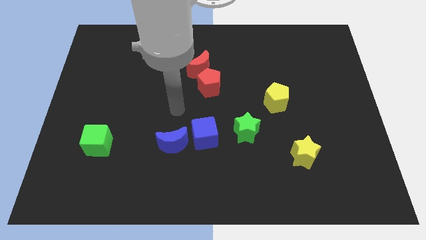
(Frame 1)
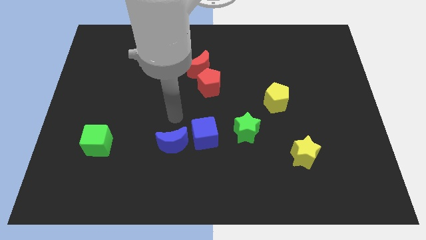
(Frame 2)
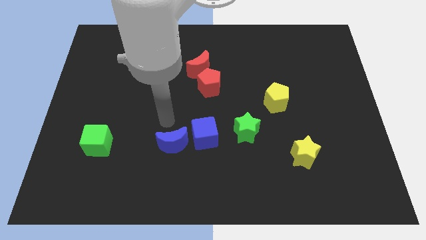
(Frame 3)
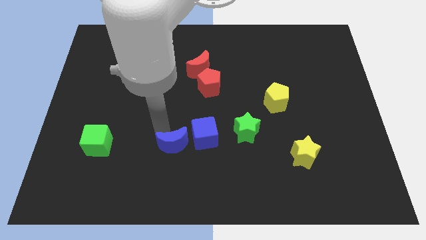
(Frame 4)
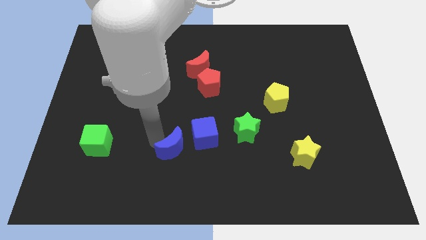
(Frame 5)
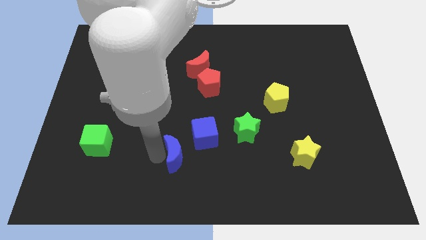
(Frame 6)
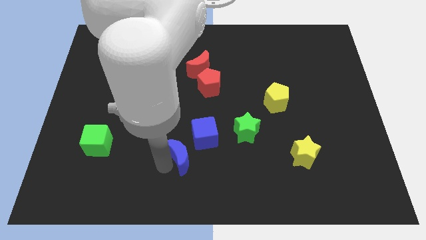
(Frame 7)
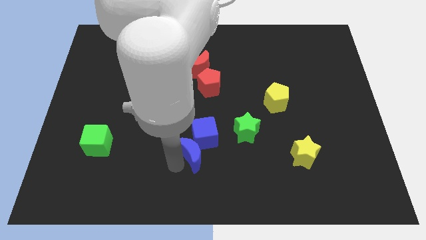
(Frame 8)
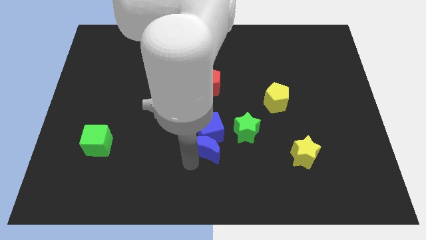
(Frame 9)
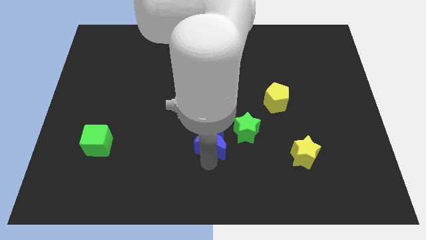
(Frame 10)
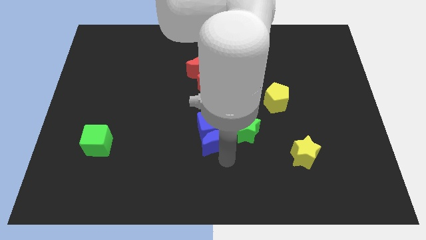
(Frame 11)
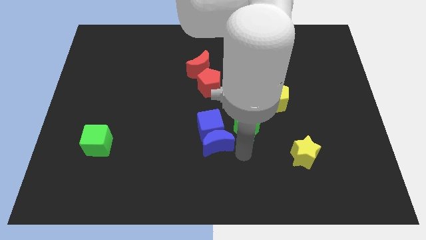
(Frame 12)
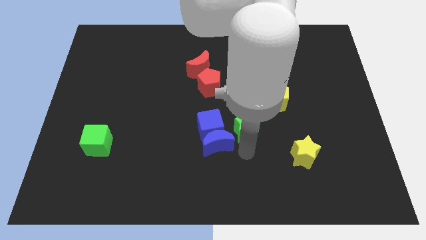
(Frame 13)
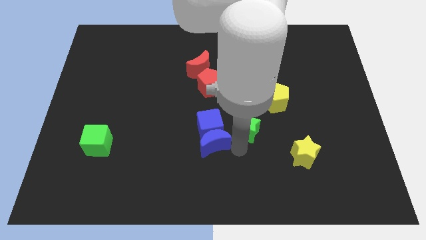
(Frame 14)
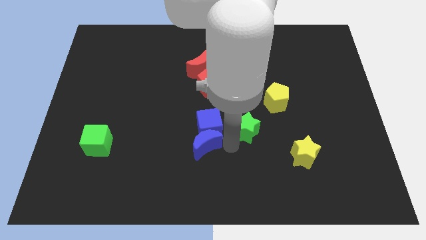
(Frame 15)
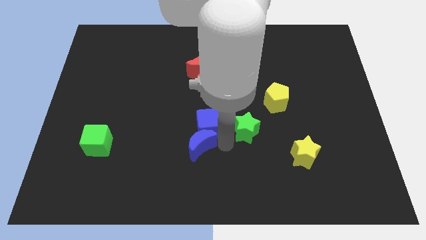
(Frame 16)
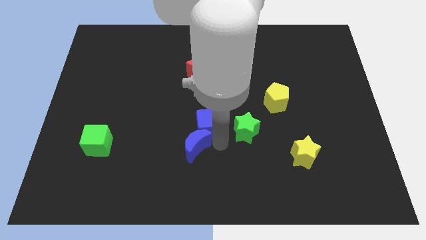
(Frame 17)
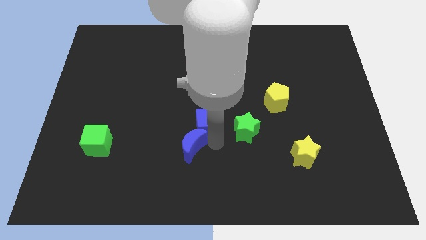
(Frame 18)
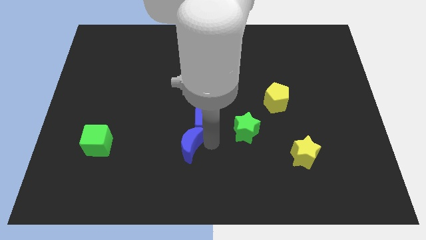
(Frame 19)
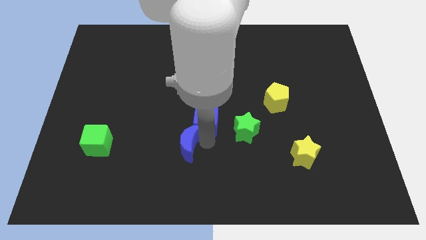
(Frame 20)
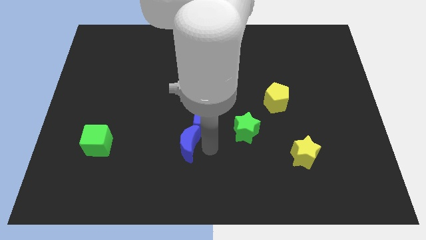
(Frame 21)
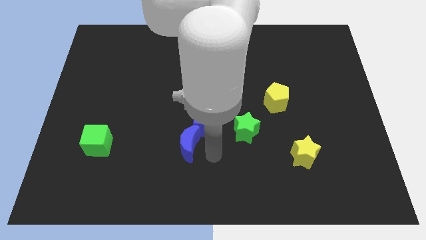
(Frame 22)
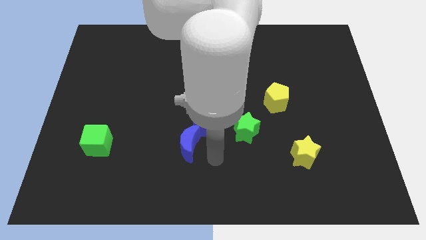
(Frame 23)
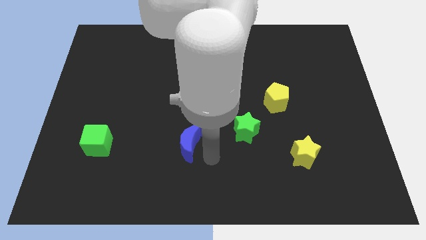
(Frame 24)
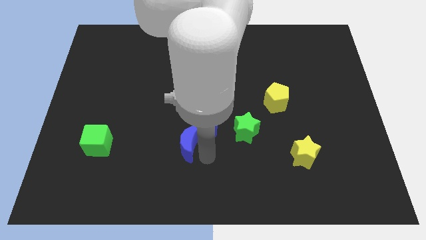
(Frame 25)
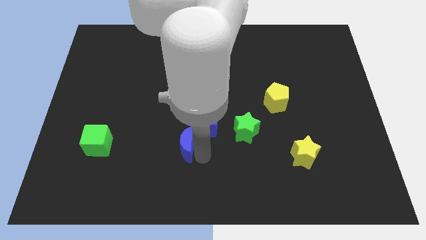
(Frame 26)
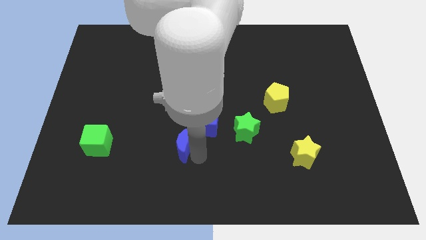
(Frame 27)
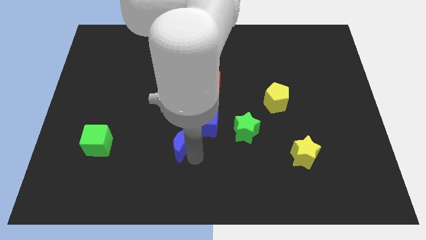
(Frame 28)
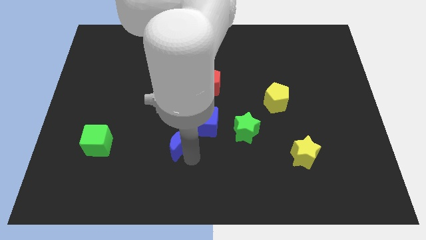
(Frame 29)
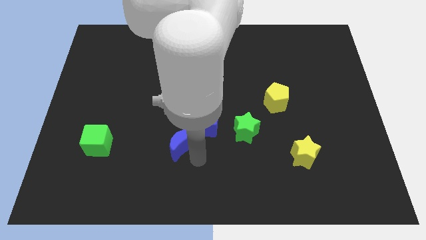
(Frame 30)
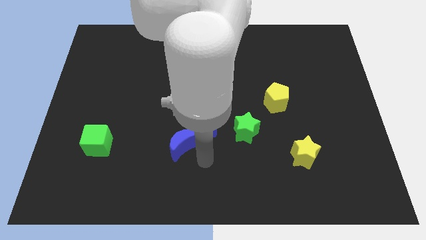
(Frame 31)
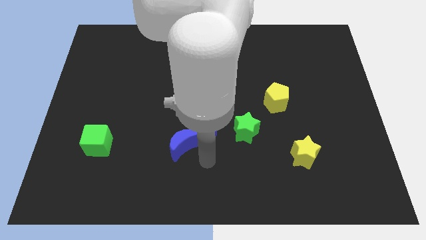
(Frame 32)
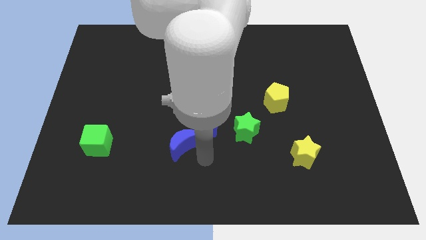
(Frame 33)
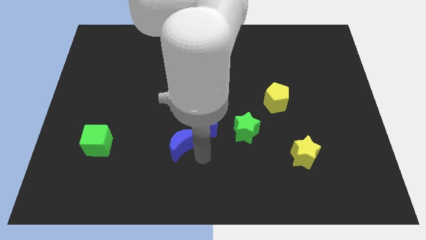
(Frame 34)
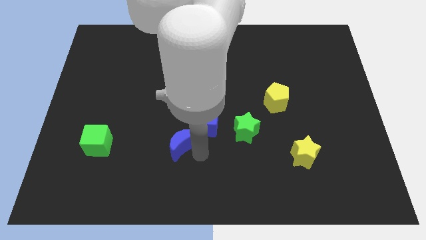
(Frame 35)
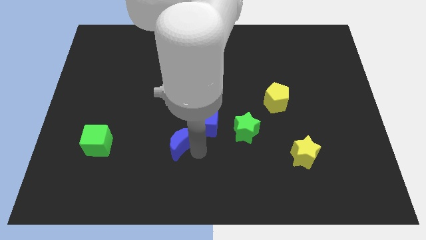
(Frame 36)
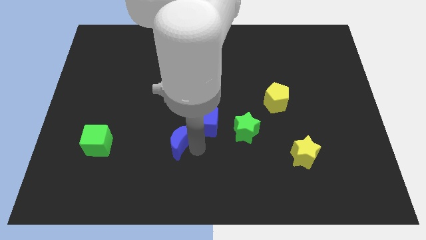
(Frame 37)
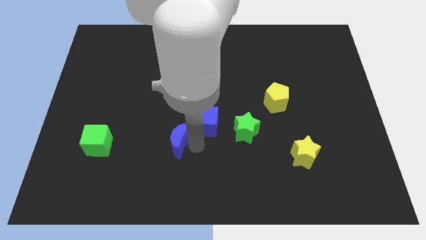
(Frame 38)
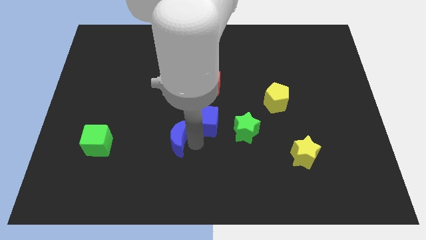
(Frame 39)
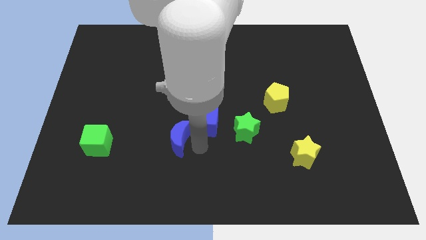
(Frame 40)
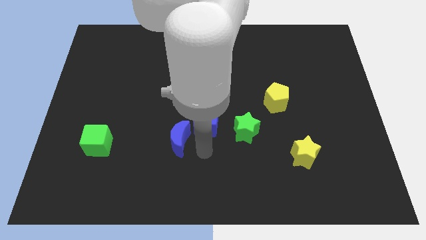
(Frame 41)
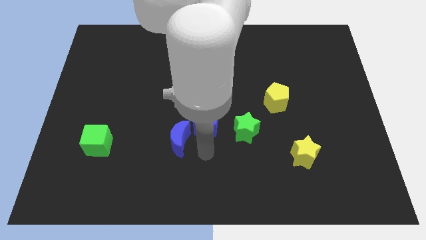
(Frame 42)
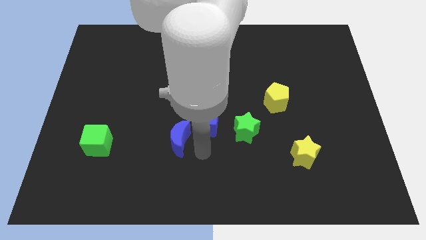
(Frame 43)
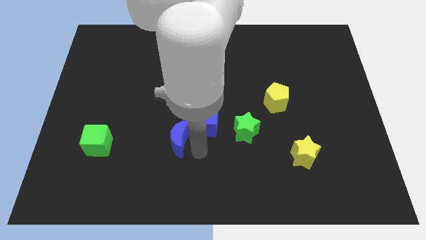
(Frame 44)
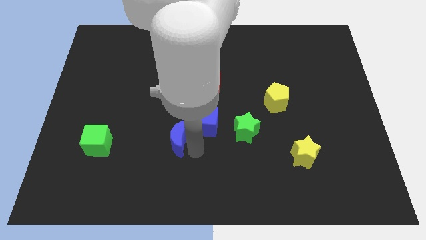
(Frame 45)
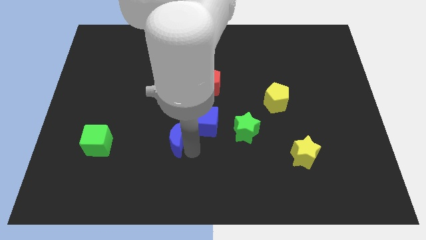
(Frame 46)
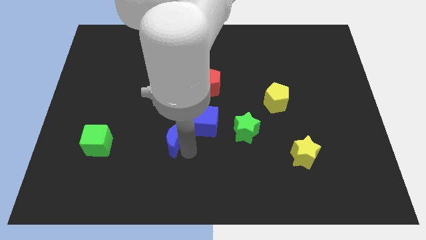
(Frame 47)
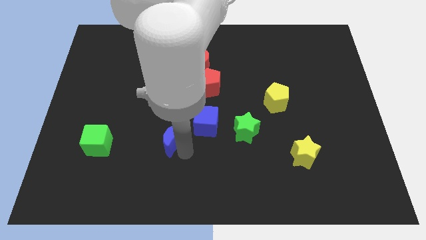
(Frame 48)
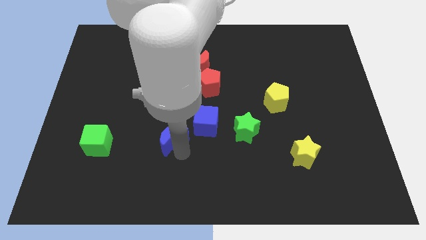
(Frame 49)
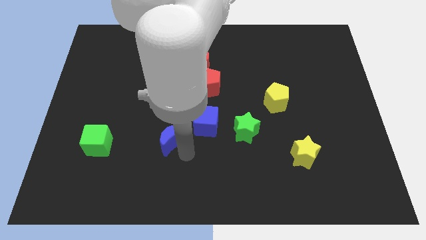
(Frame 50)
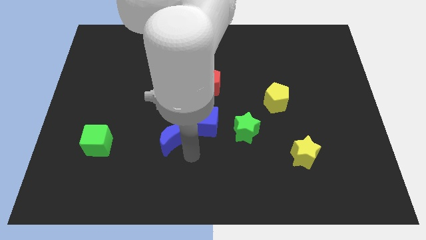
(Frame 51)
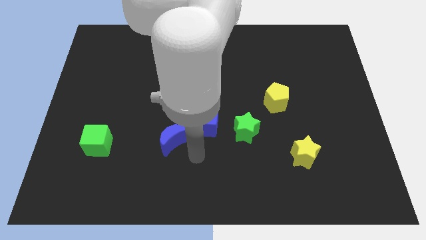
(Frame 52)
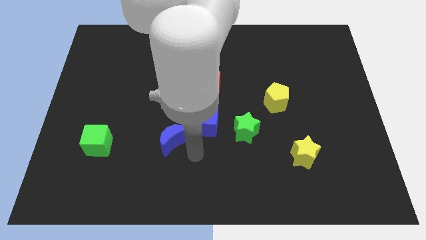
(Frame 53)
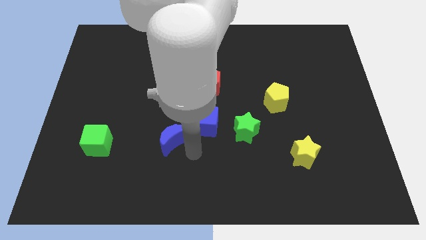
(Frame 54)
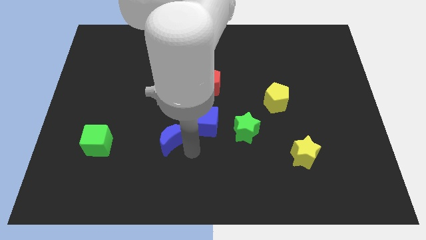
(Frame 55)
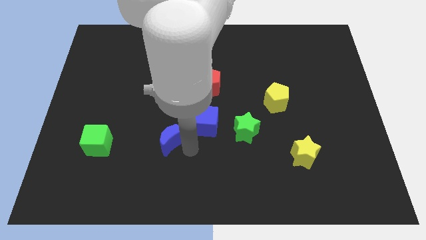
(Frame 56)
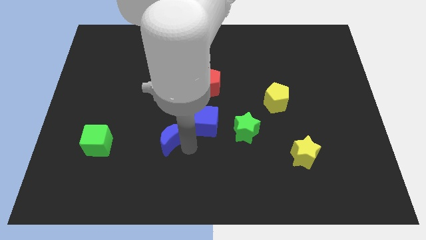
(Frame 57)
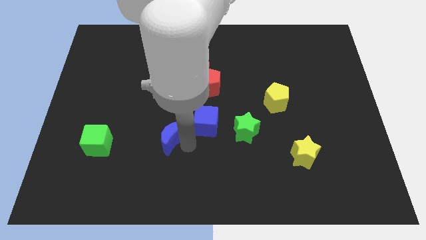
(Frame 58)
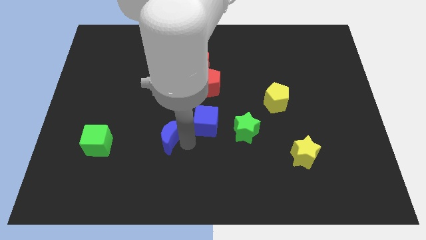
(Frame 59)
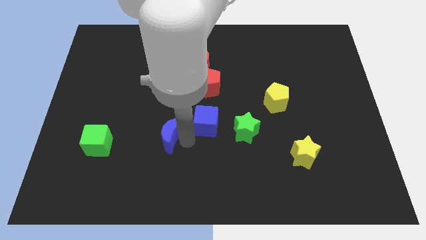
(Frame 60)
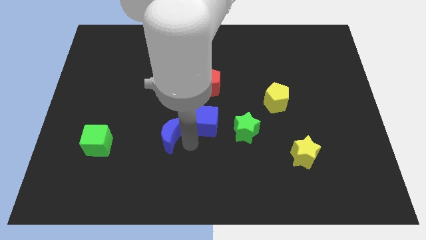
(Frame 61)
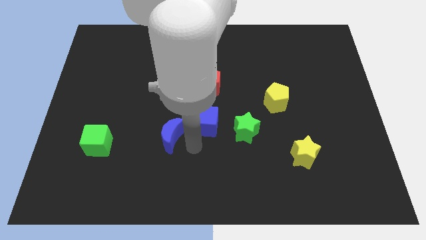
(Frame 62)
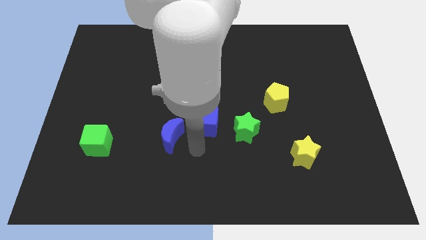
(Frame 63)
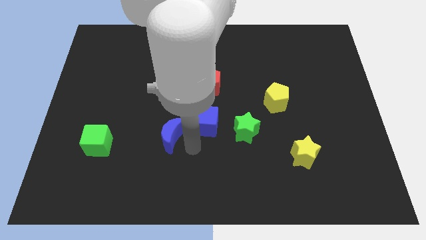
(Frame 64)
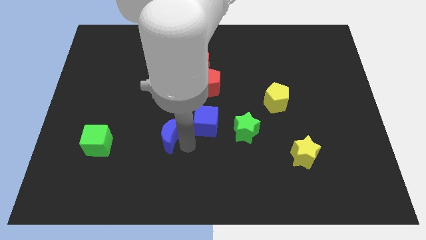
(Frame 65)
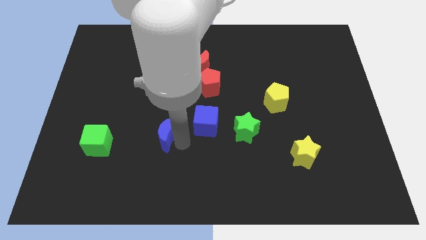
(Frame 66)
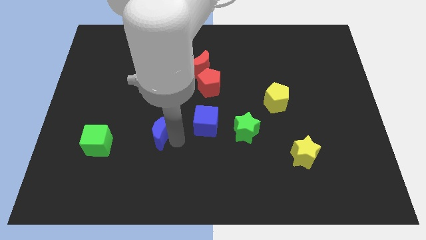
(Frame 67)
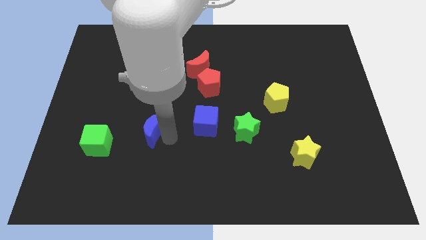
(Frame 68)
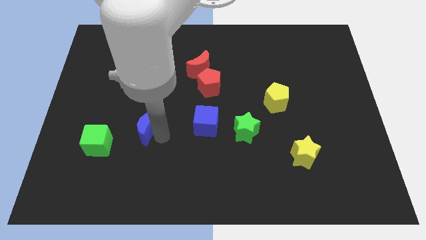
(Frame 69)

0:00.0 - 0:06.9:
slightly move the blue moon up and then left

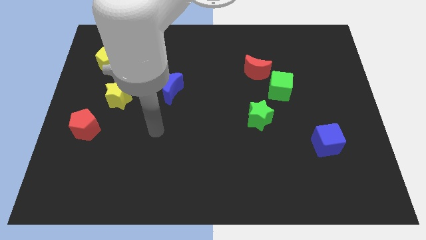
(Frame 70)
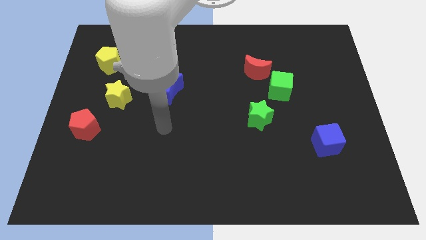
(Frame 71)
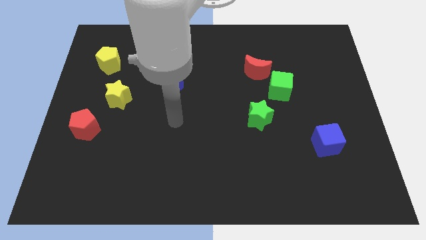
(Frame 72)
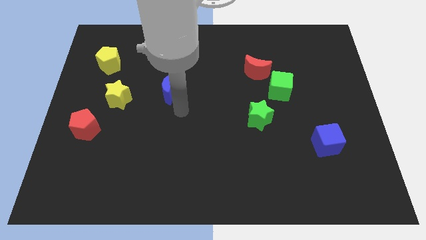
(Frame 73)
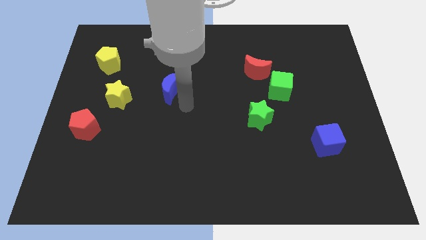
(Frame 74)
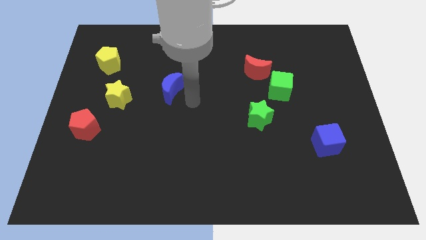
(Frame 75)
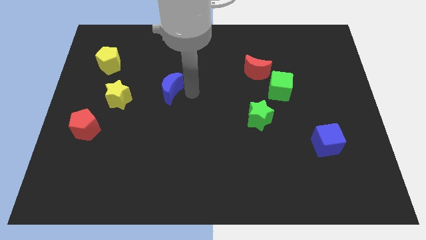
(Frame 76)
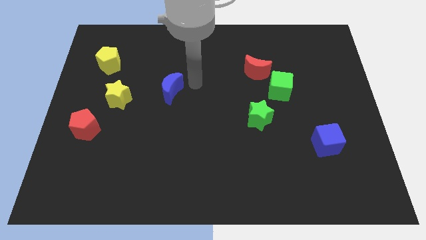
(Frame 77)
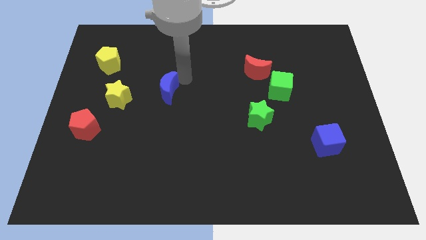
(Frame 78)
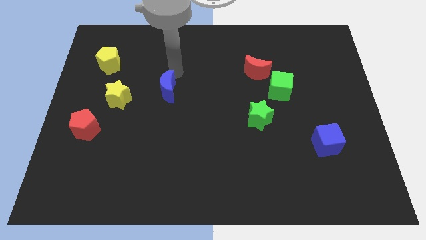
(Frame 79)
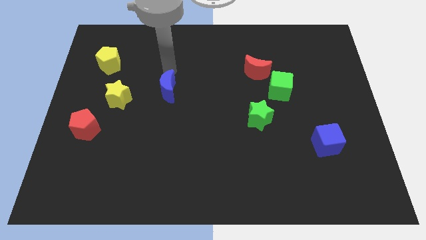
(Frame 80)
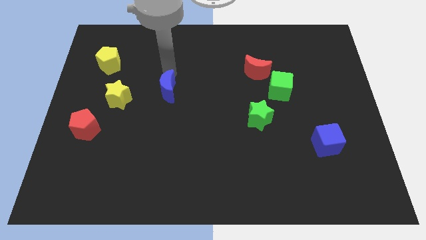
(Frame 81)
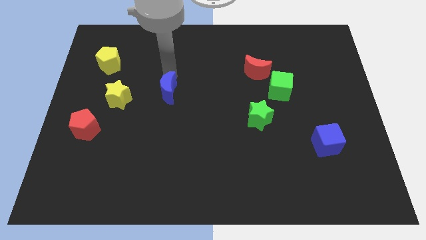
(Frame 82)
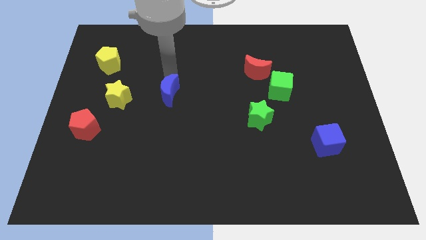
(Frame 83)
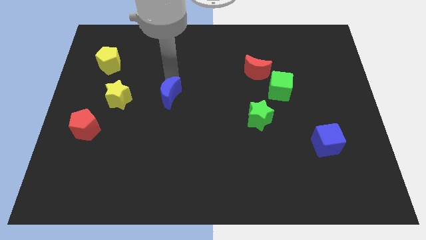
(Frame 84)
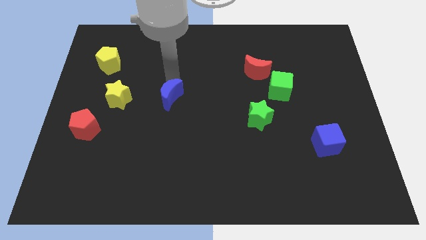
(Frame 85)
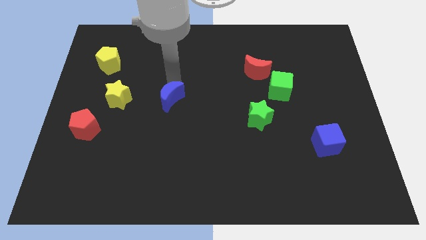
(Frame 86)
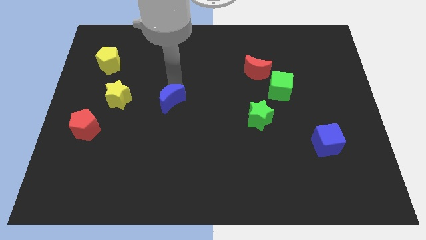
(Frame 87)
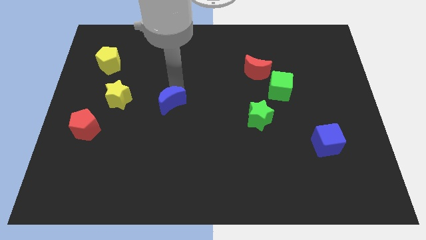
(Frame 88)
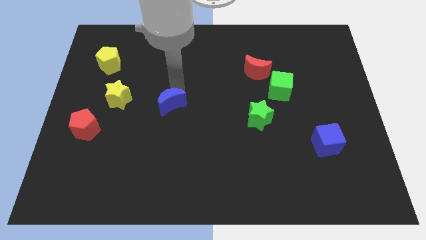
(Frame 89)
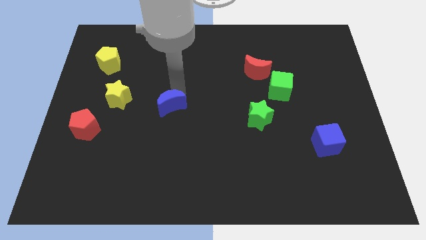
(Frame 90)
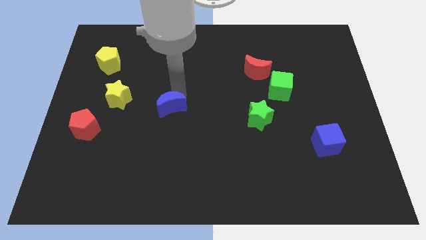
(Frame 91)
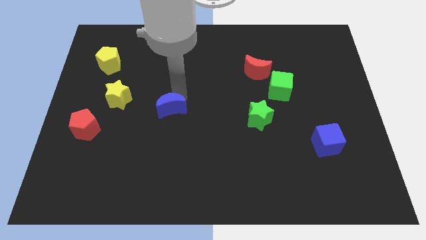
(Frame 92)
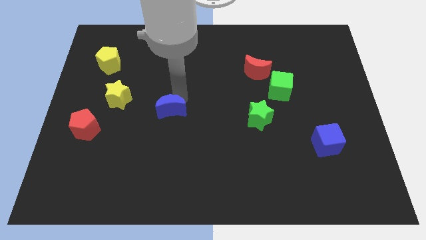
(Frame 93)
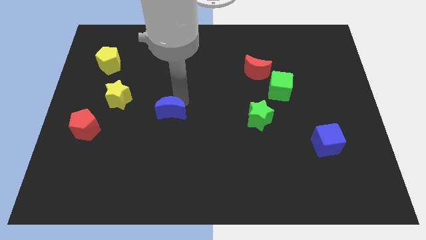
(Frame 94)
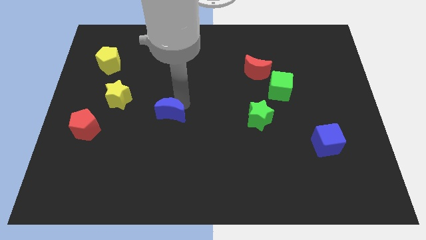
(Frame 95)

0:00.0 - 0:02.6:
move the blue moon down a little bit
